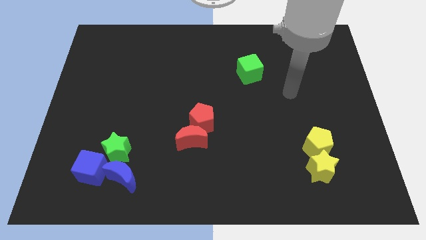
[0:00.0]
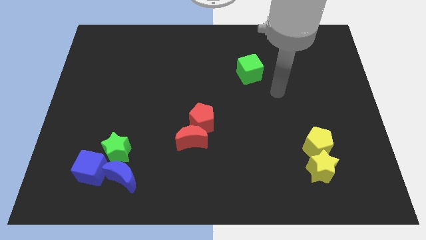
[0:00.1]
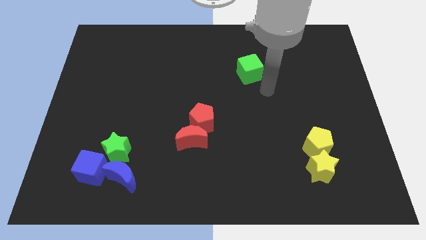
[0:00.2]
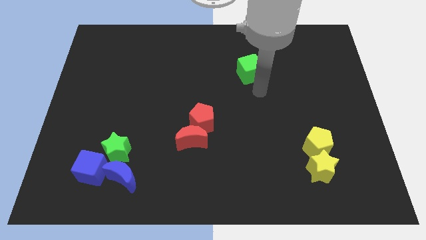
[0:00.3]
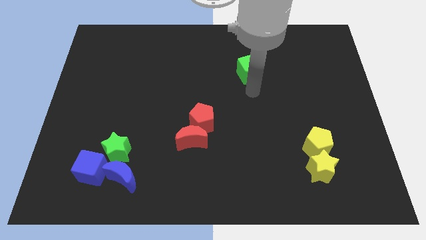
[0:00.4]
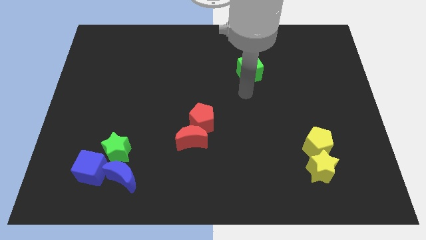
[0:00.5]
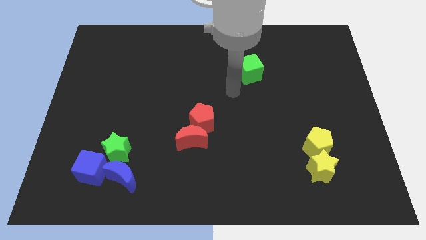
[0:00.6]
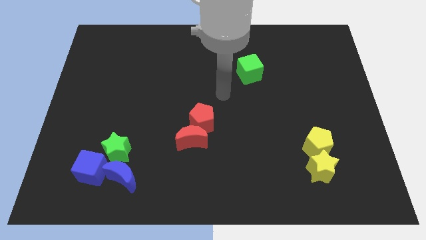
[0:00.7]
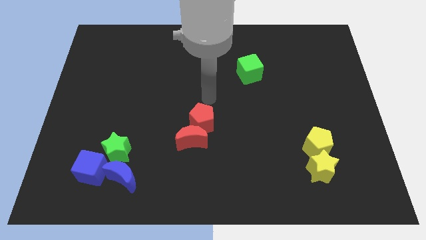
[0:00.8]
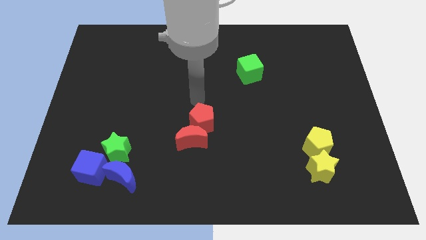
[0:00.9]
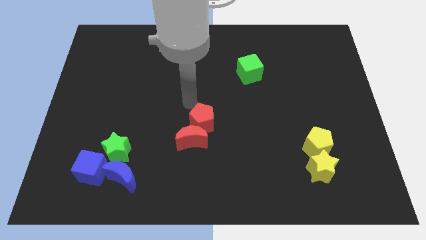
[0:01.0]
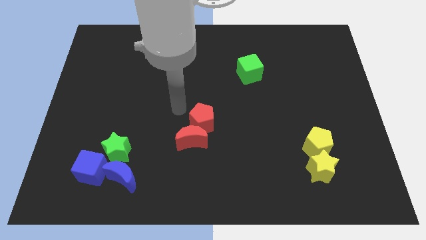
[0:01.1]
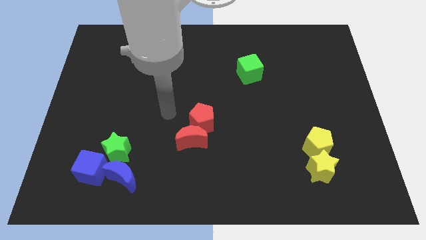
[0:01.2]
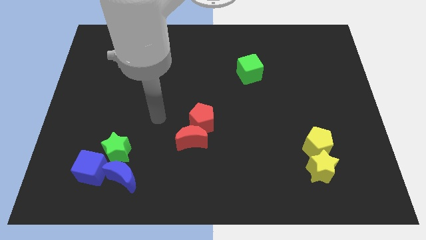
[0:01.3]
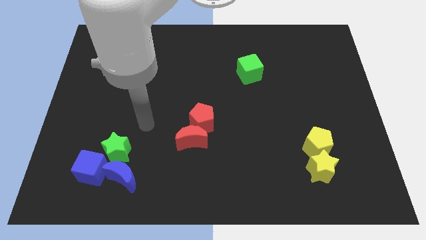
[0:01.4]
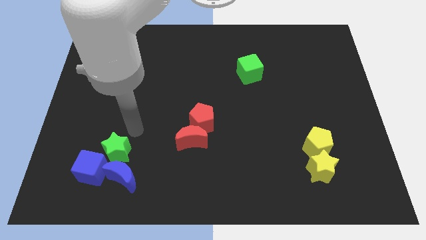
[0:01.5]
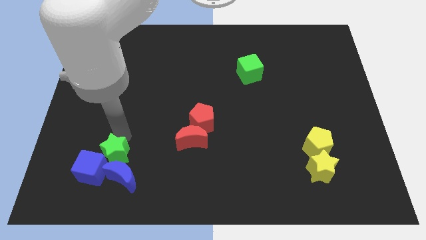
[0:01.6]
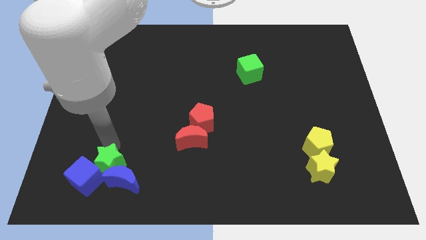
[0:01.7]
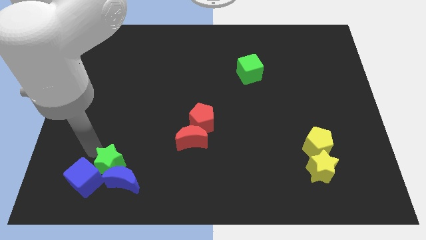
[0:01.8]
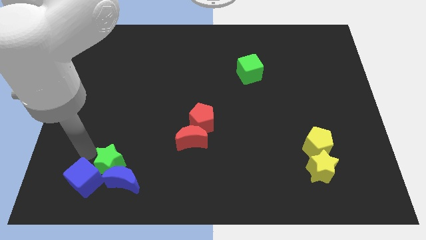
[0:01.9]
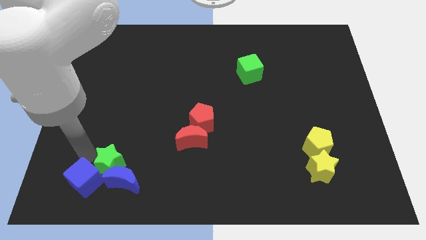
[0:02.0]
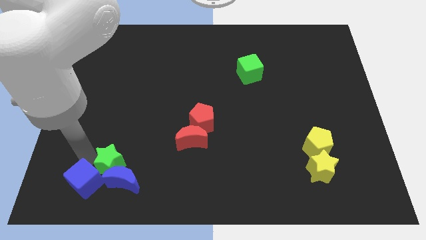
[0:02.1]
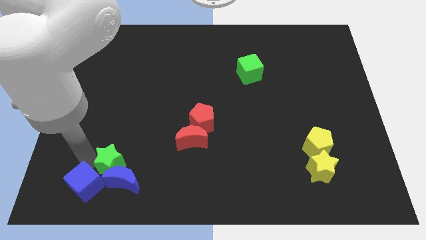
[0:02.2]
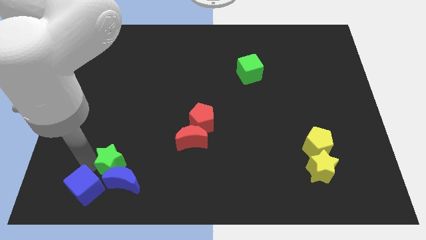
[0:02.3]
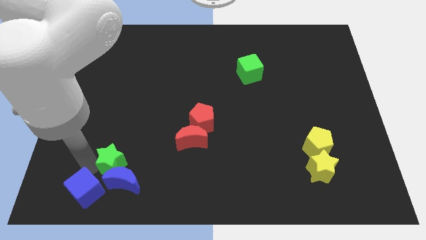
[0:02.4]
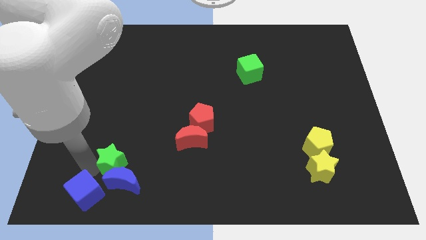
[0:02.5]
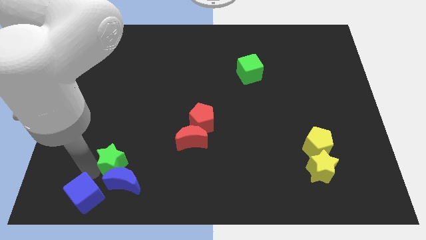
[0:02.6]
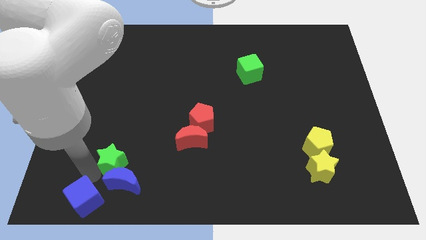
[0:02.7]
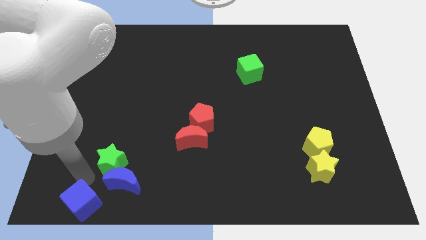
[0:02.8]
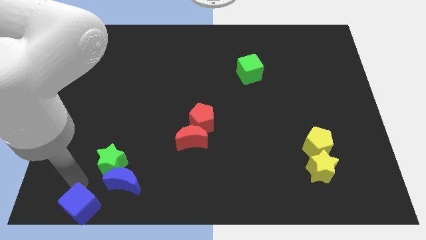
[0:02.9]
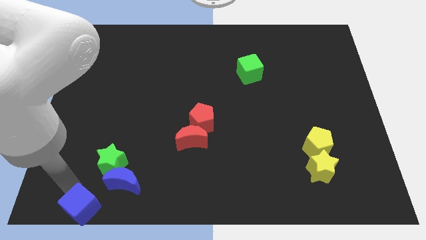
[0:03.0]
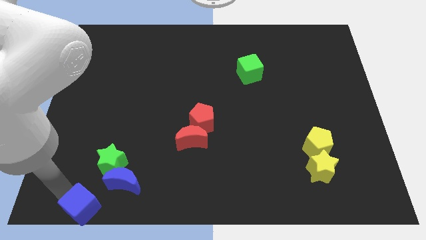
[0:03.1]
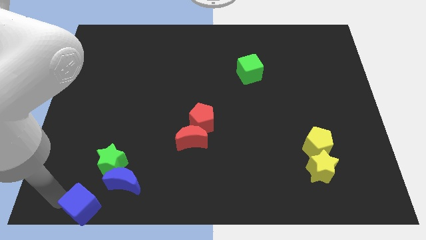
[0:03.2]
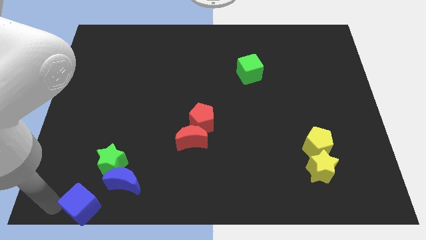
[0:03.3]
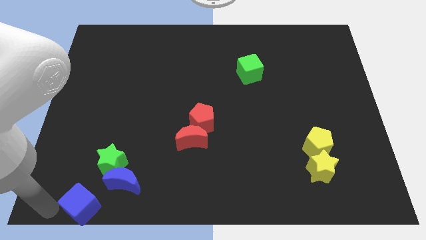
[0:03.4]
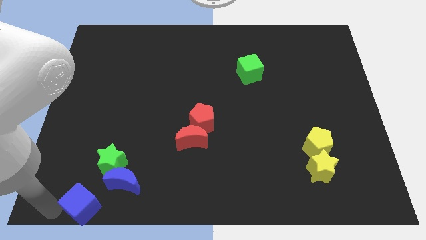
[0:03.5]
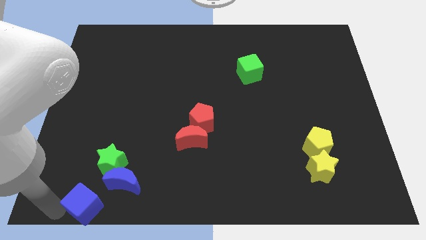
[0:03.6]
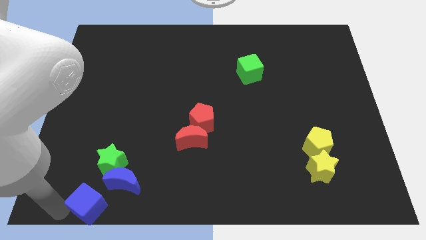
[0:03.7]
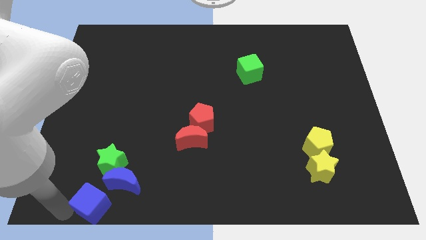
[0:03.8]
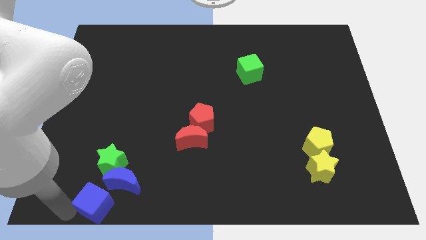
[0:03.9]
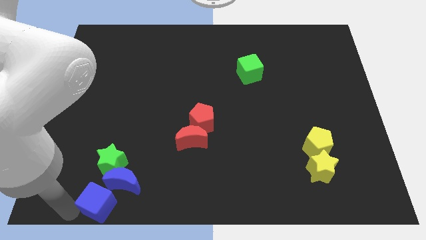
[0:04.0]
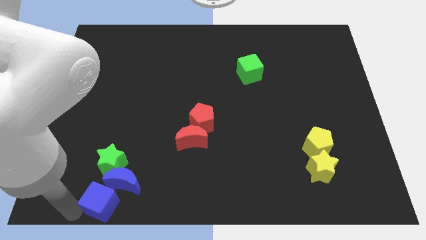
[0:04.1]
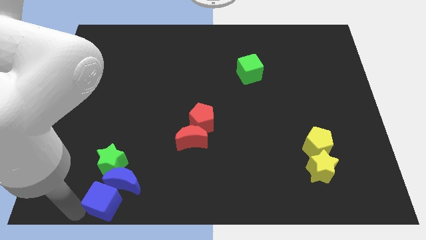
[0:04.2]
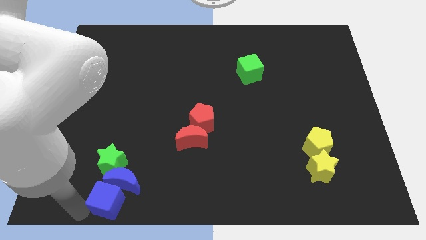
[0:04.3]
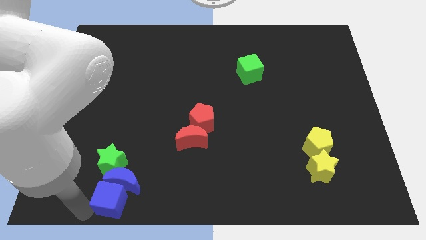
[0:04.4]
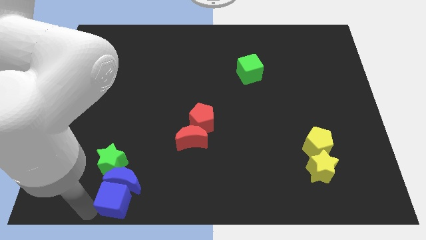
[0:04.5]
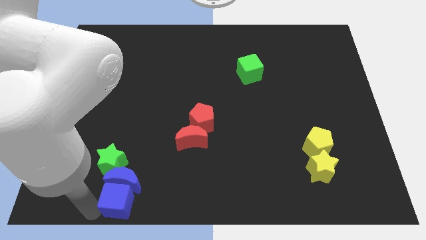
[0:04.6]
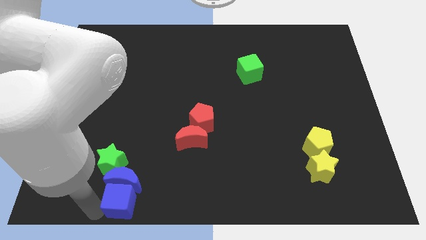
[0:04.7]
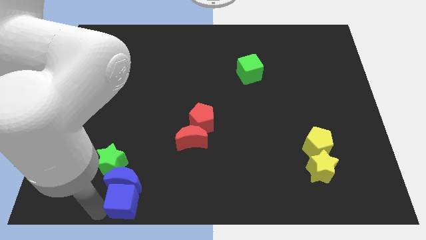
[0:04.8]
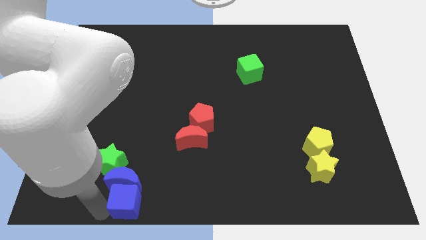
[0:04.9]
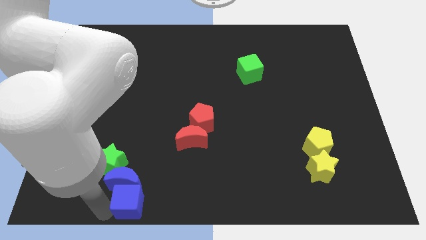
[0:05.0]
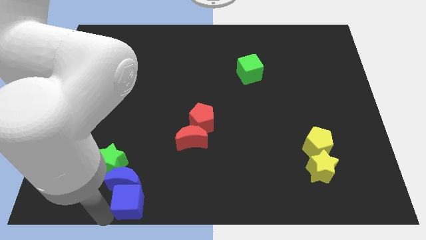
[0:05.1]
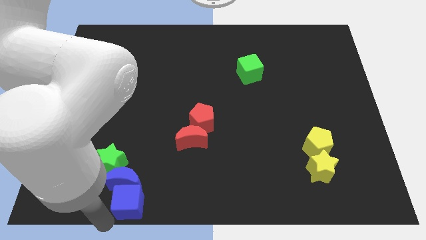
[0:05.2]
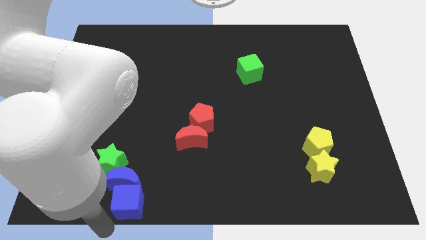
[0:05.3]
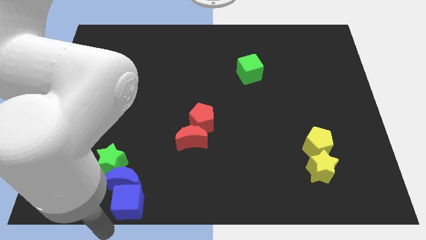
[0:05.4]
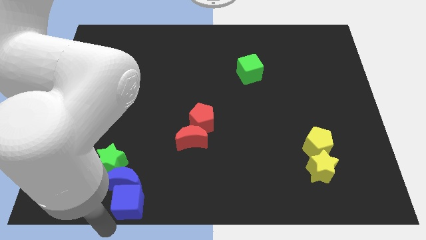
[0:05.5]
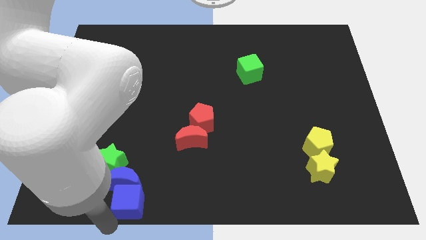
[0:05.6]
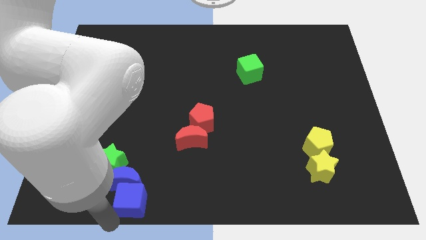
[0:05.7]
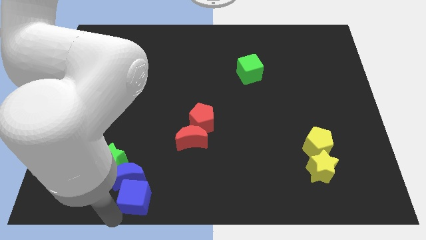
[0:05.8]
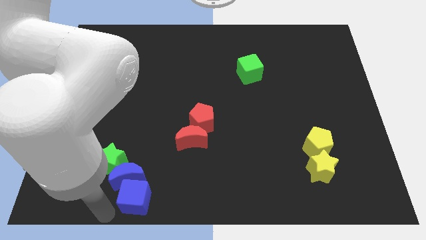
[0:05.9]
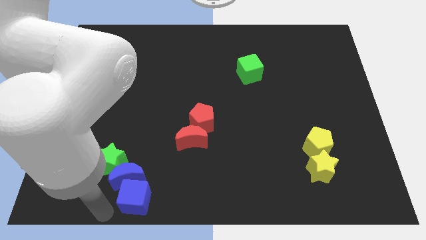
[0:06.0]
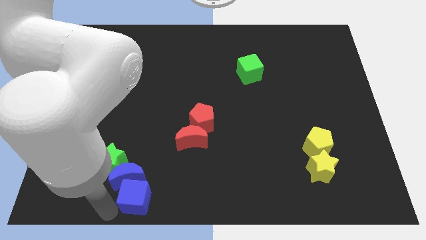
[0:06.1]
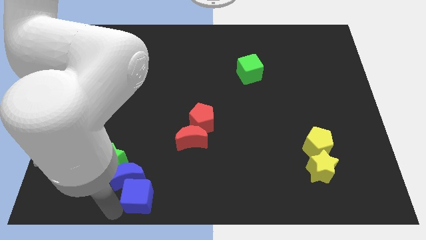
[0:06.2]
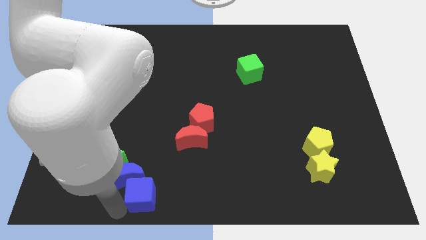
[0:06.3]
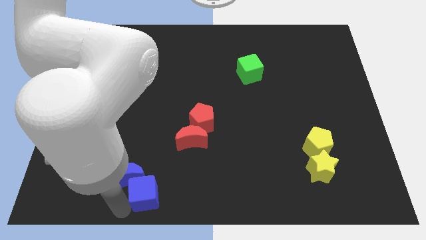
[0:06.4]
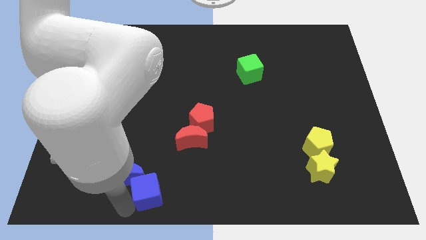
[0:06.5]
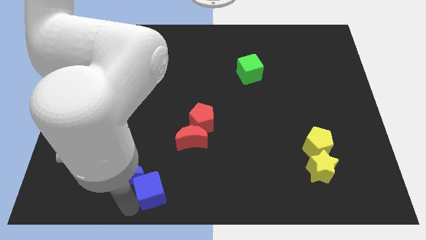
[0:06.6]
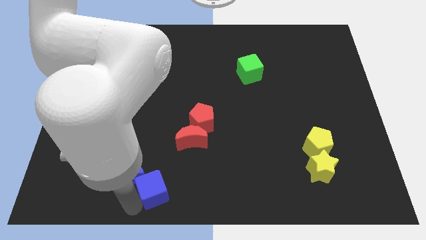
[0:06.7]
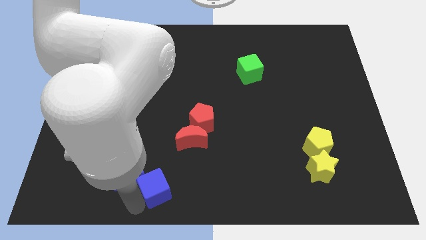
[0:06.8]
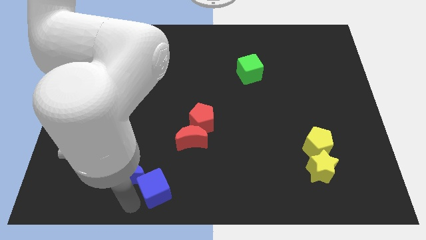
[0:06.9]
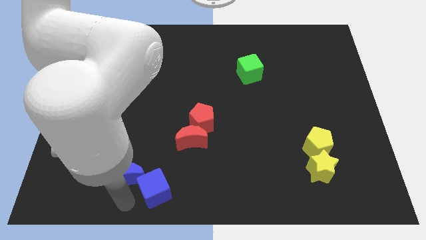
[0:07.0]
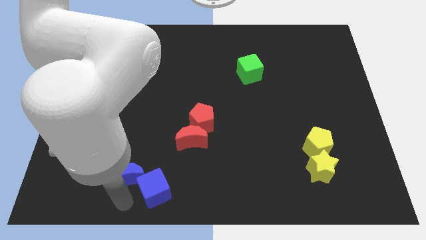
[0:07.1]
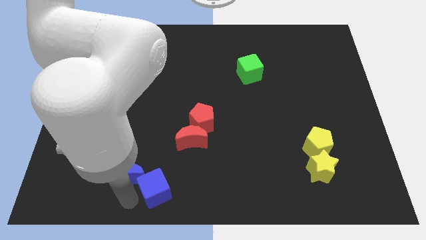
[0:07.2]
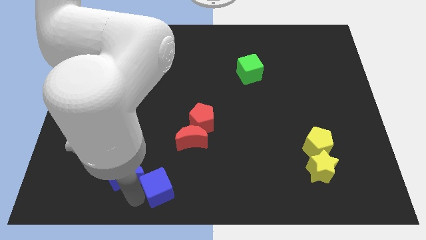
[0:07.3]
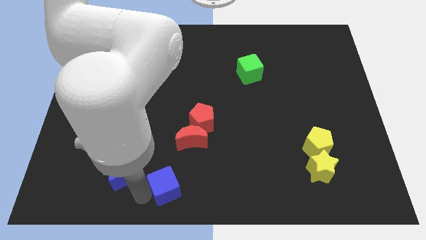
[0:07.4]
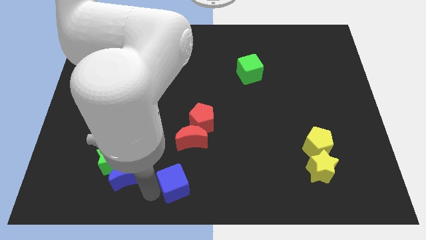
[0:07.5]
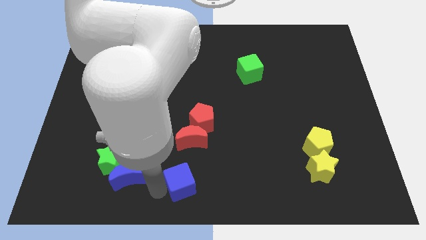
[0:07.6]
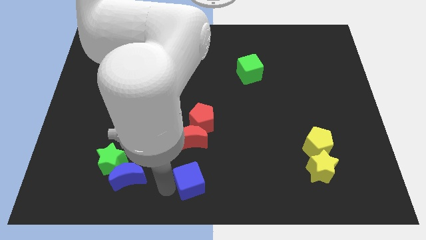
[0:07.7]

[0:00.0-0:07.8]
push the blue cube to the right

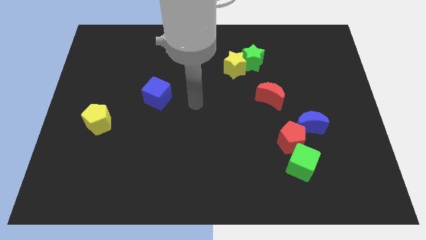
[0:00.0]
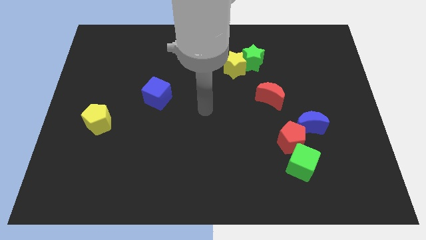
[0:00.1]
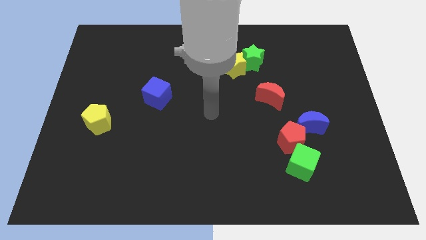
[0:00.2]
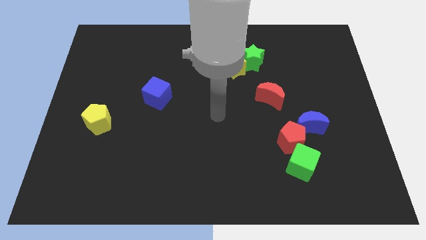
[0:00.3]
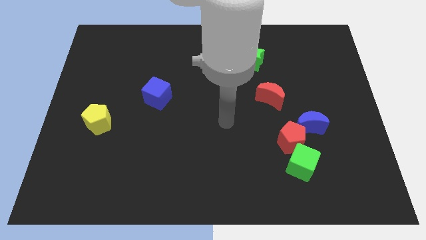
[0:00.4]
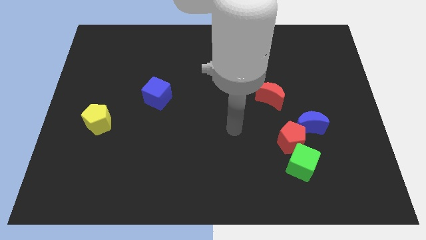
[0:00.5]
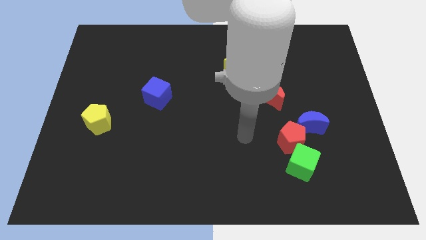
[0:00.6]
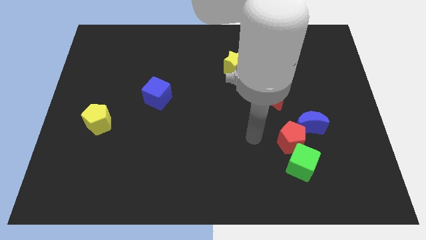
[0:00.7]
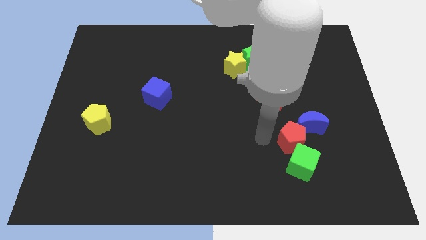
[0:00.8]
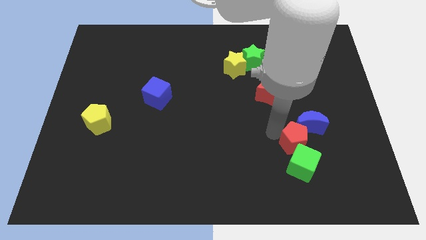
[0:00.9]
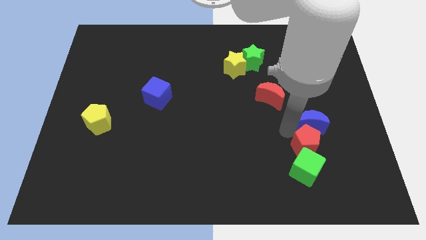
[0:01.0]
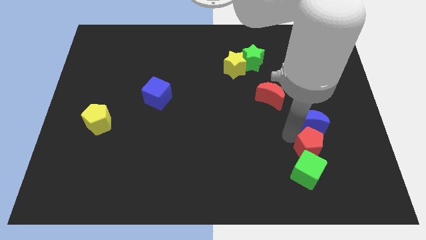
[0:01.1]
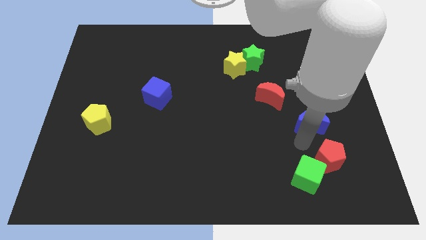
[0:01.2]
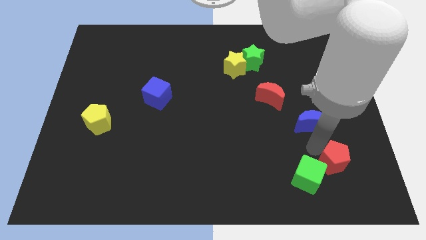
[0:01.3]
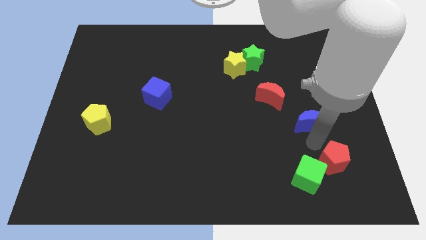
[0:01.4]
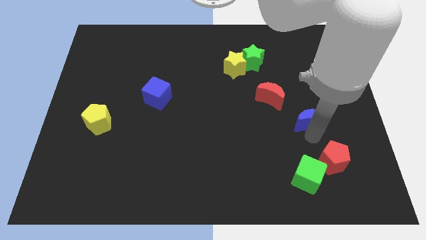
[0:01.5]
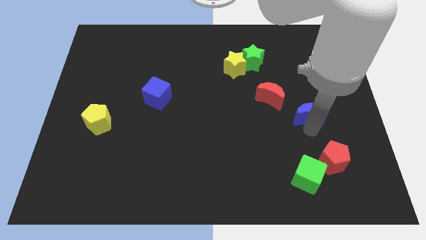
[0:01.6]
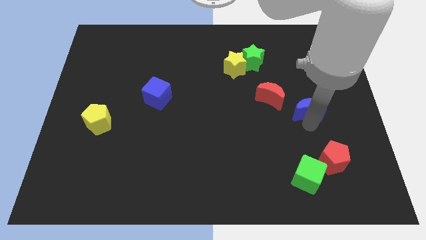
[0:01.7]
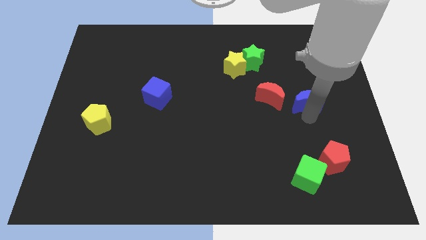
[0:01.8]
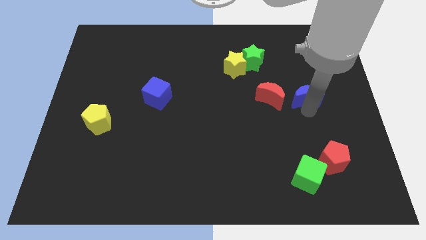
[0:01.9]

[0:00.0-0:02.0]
slightly move the blue moon upwards
